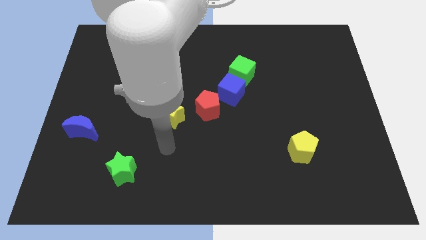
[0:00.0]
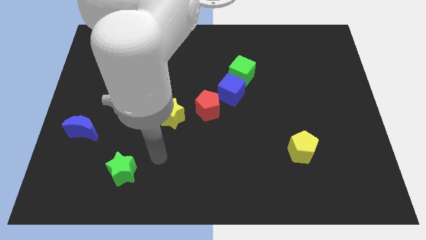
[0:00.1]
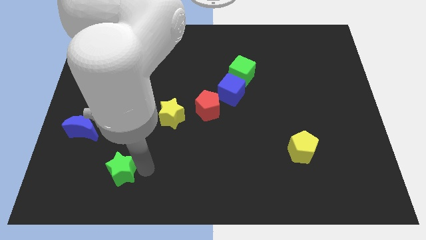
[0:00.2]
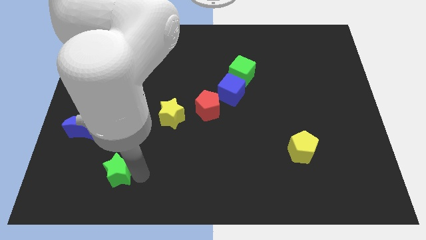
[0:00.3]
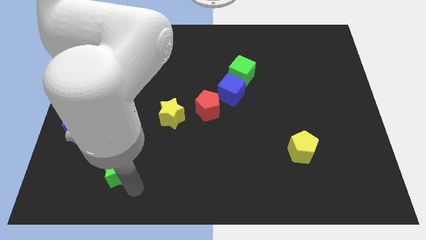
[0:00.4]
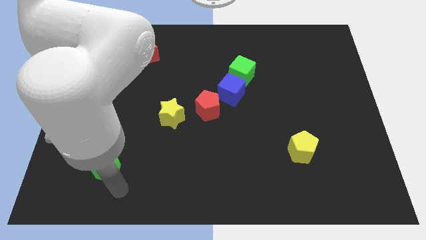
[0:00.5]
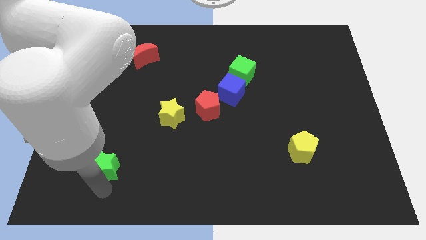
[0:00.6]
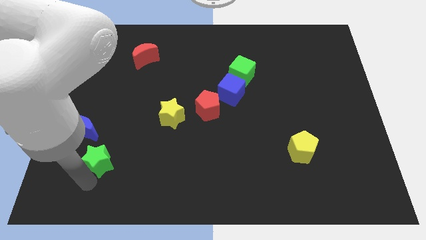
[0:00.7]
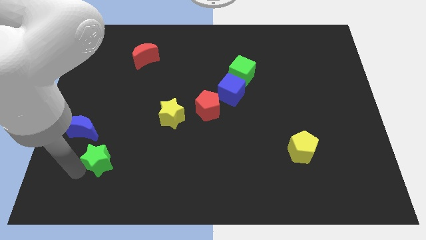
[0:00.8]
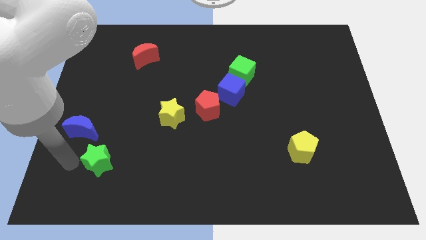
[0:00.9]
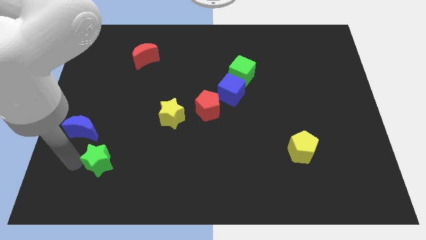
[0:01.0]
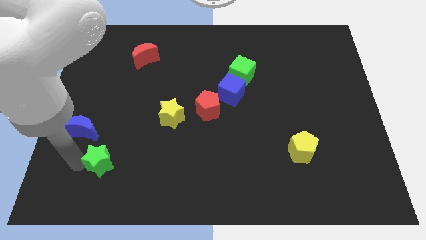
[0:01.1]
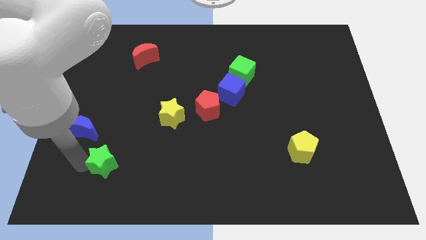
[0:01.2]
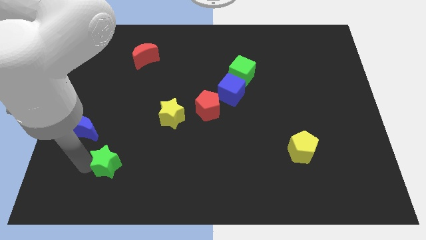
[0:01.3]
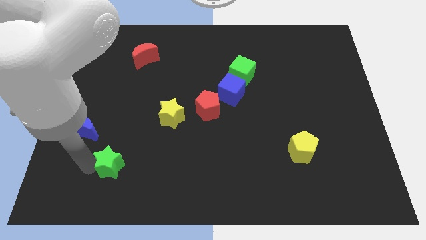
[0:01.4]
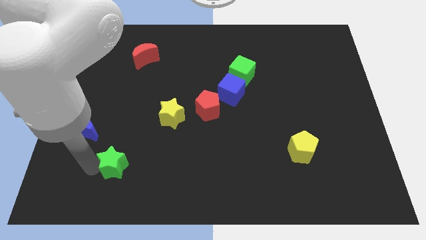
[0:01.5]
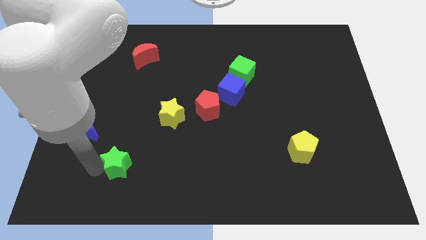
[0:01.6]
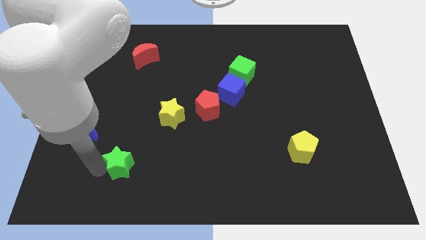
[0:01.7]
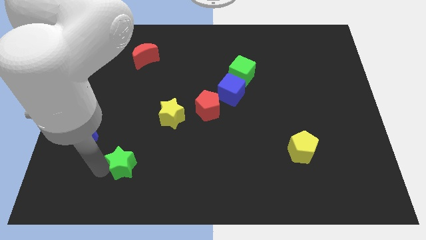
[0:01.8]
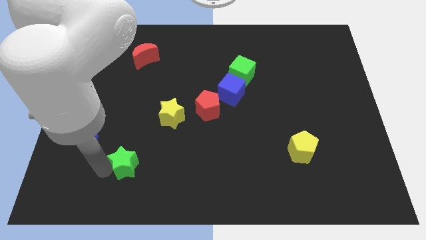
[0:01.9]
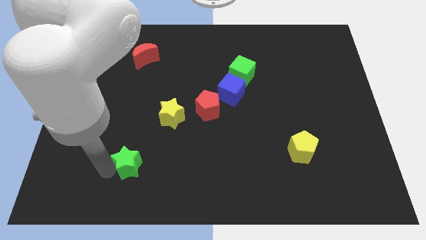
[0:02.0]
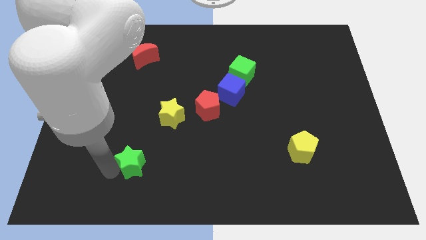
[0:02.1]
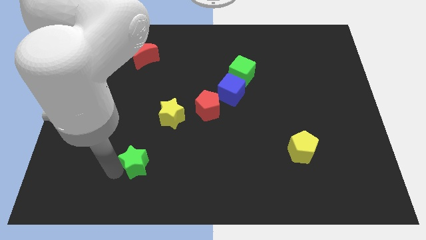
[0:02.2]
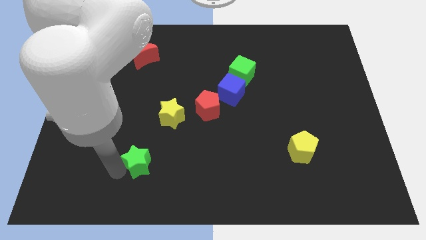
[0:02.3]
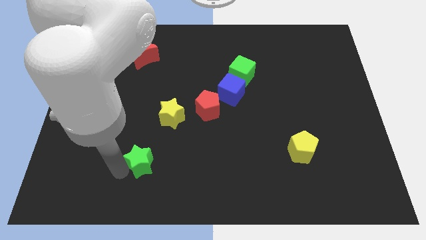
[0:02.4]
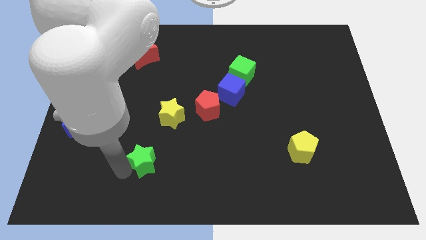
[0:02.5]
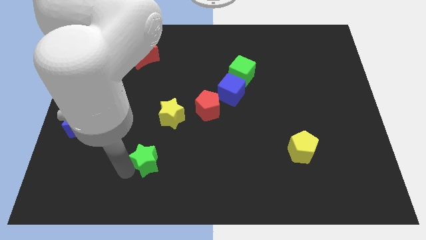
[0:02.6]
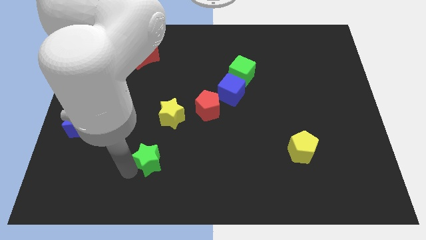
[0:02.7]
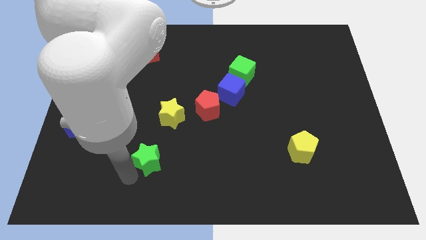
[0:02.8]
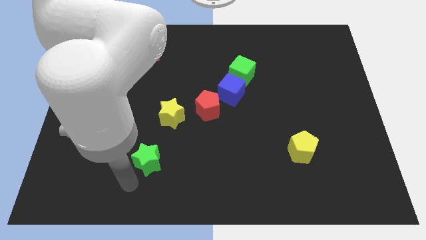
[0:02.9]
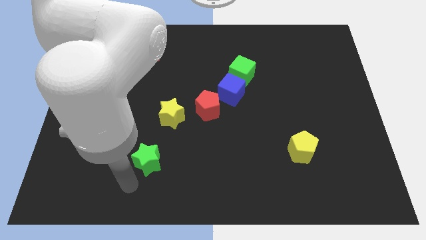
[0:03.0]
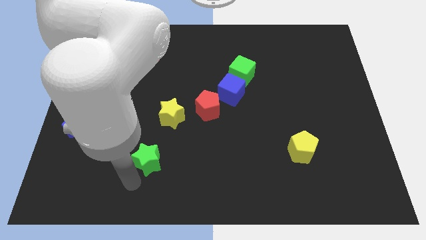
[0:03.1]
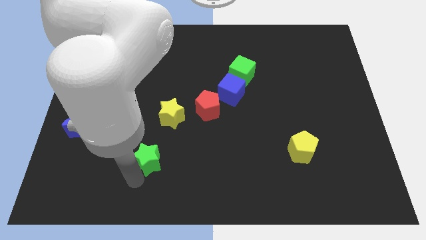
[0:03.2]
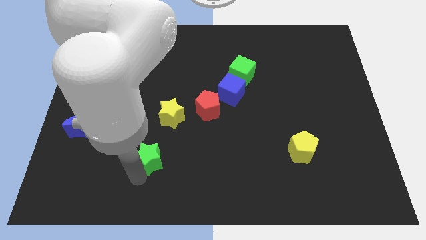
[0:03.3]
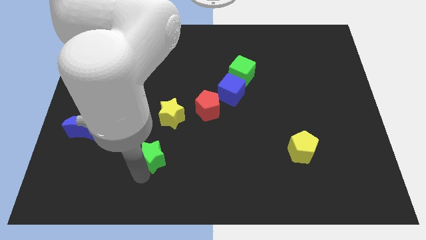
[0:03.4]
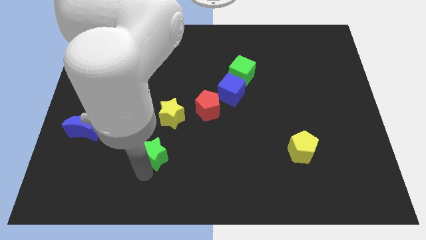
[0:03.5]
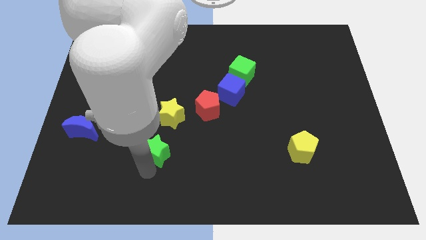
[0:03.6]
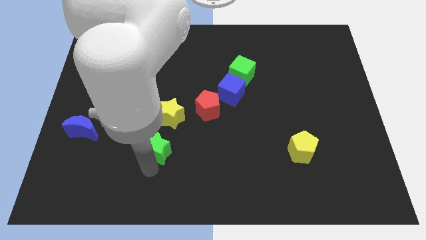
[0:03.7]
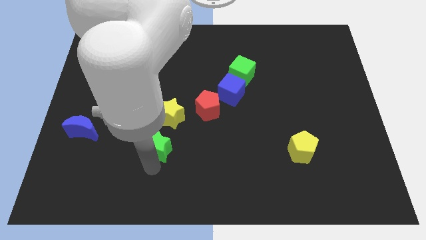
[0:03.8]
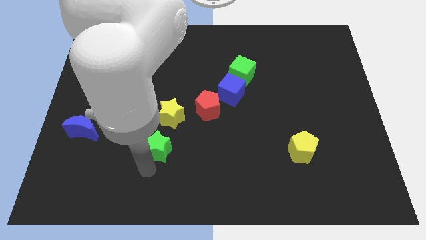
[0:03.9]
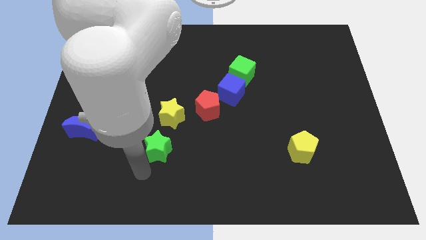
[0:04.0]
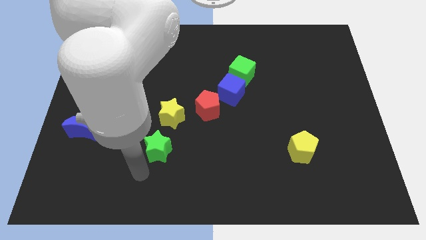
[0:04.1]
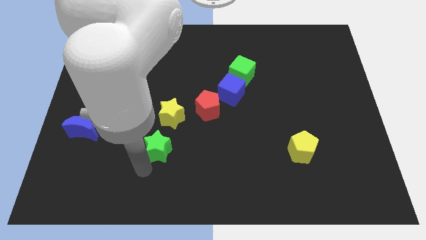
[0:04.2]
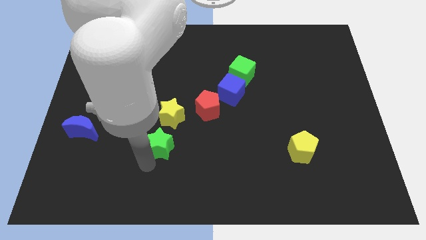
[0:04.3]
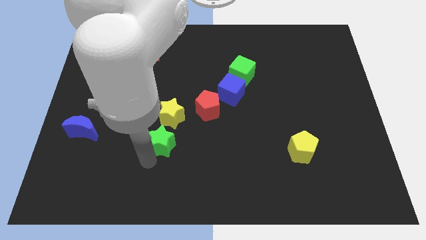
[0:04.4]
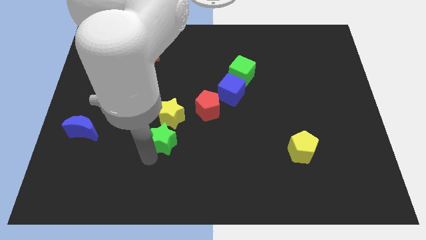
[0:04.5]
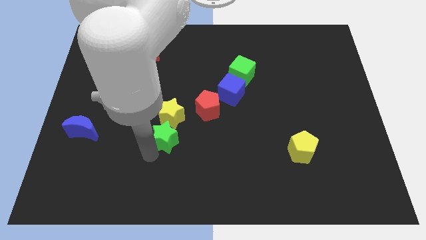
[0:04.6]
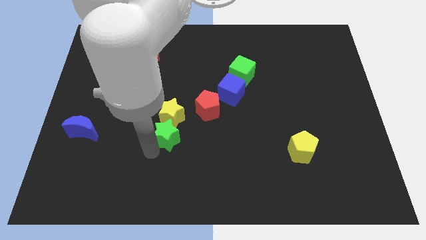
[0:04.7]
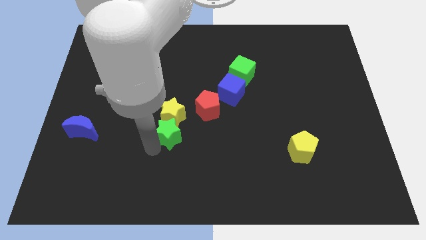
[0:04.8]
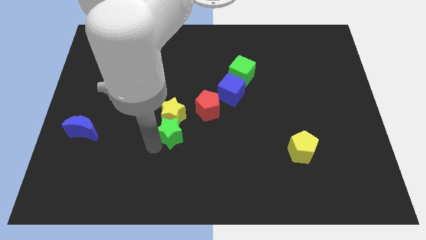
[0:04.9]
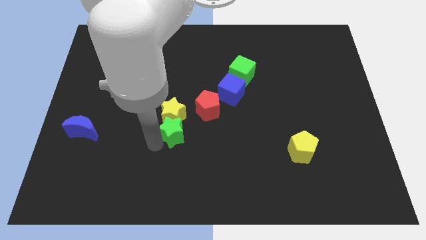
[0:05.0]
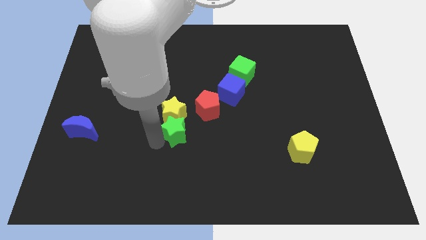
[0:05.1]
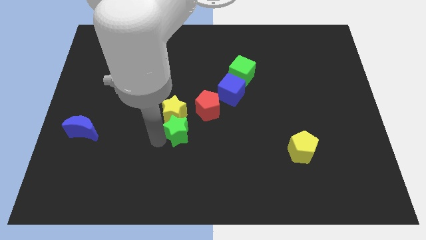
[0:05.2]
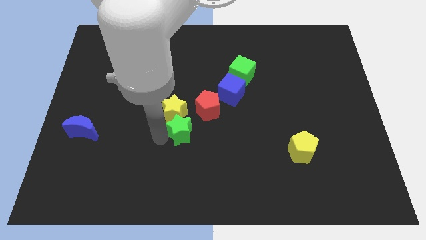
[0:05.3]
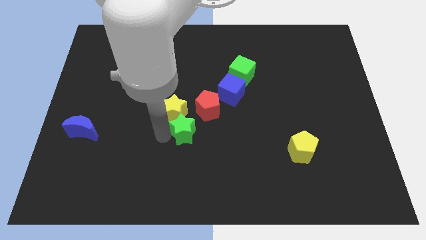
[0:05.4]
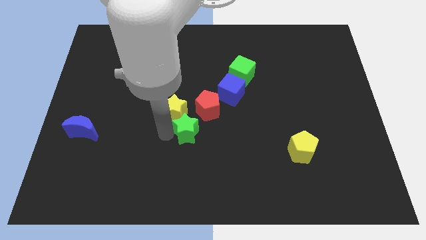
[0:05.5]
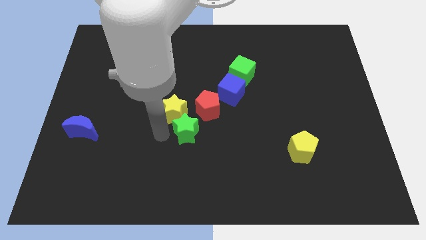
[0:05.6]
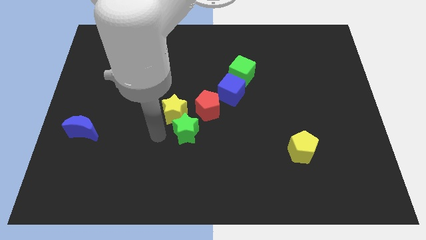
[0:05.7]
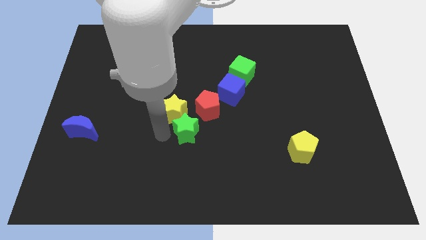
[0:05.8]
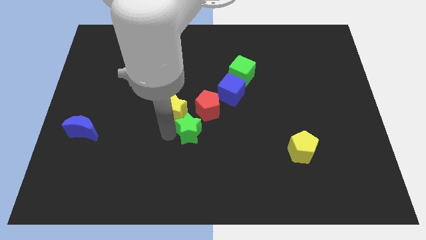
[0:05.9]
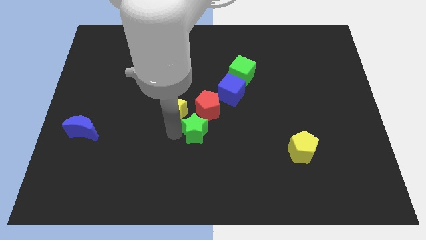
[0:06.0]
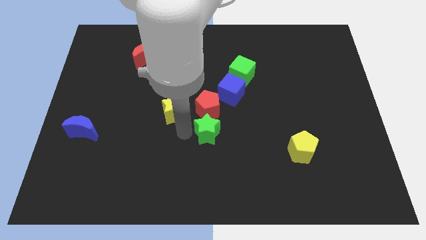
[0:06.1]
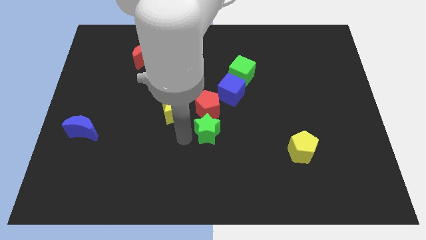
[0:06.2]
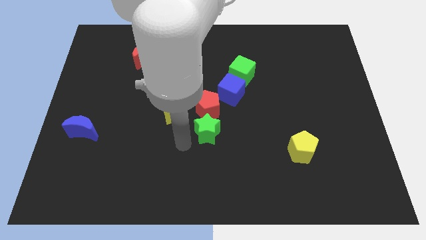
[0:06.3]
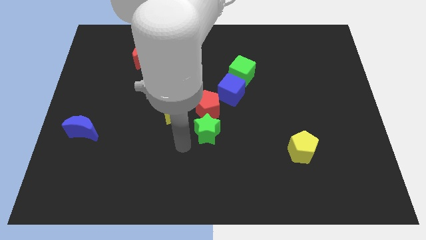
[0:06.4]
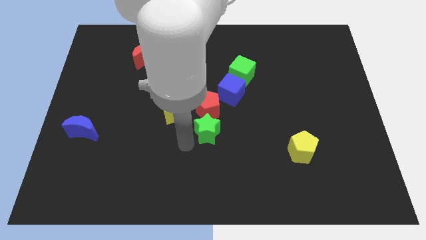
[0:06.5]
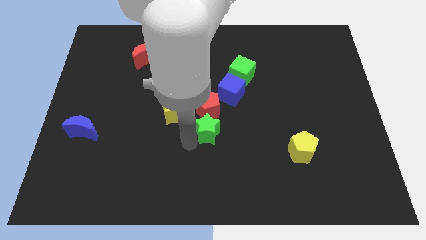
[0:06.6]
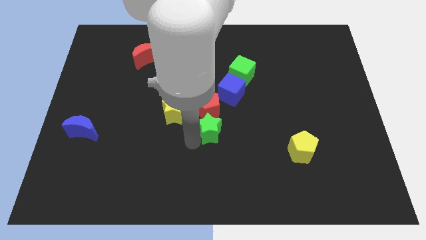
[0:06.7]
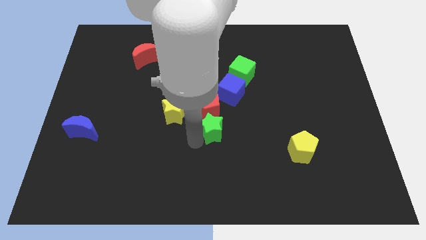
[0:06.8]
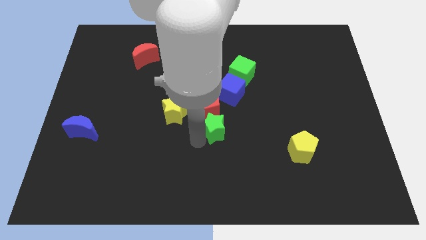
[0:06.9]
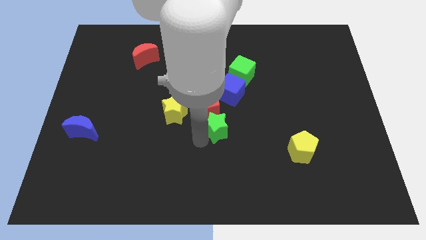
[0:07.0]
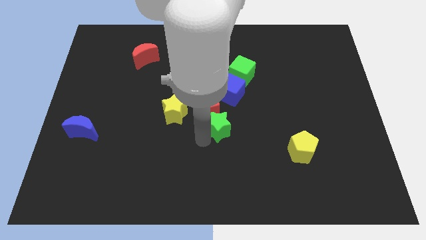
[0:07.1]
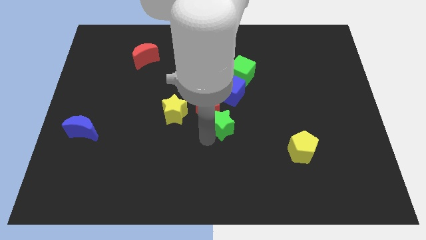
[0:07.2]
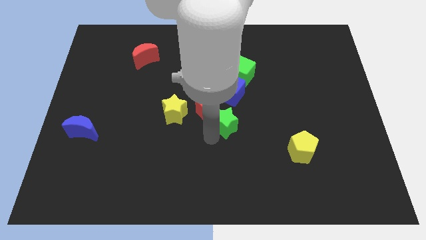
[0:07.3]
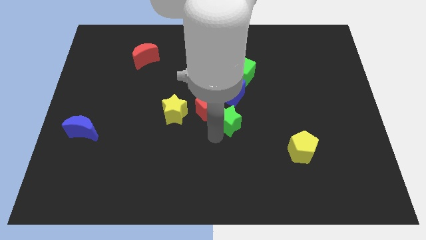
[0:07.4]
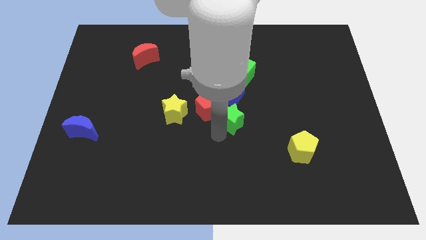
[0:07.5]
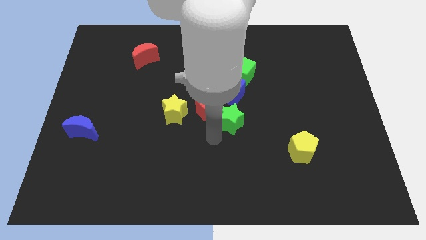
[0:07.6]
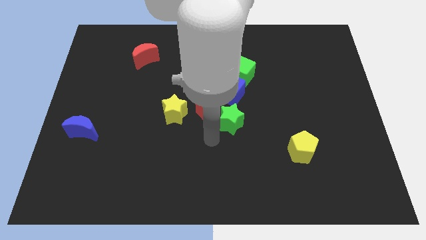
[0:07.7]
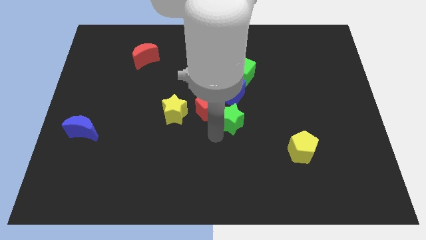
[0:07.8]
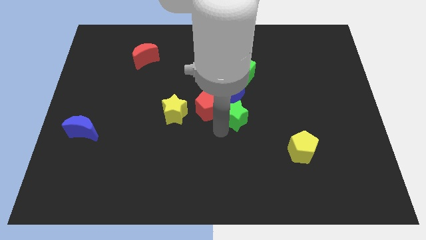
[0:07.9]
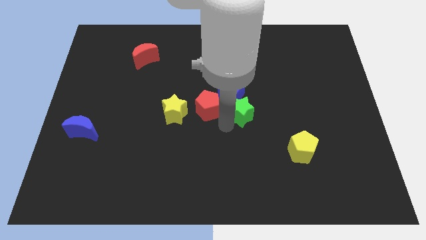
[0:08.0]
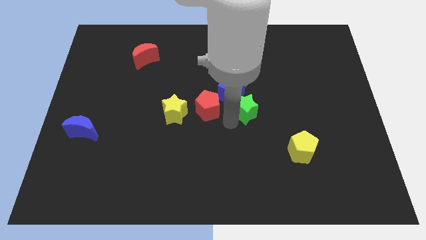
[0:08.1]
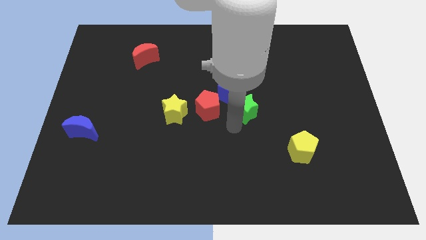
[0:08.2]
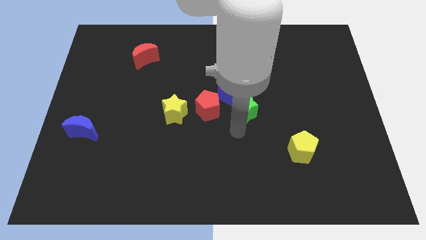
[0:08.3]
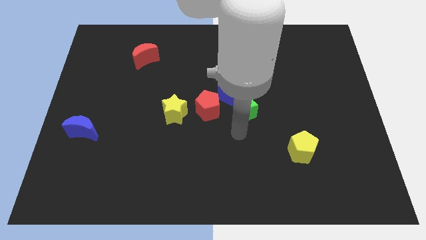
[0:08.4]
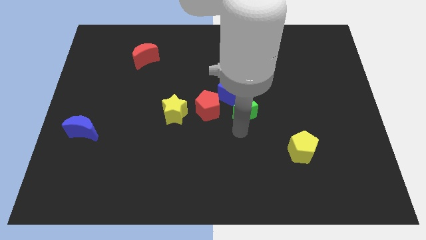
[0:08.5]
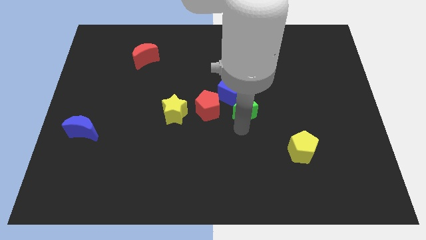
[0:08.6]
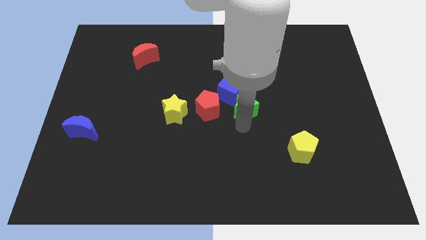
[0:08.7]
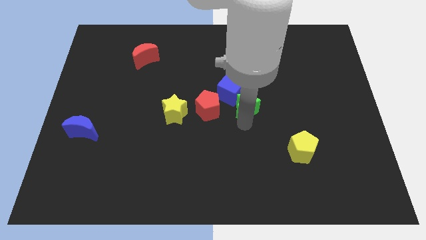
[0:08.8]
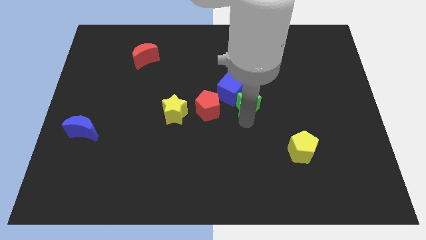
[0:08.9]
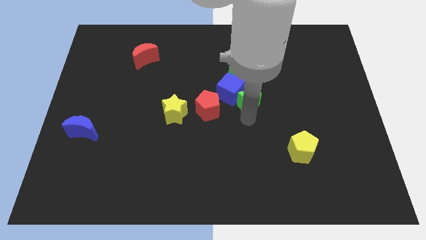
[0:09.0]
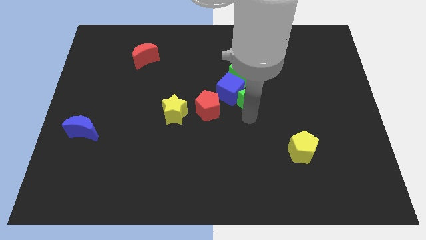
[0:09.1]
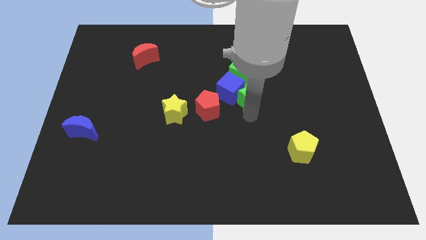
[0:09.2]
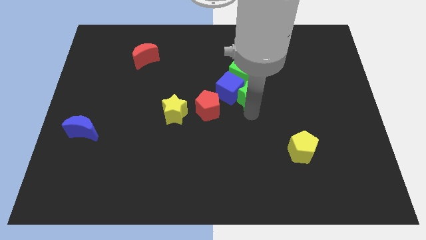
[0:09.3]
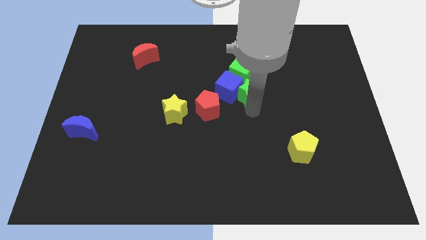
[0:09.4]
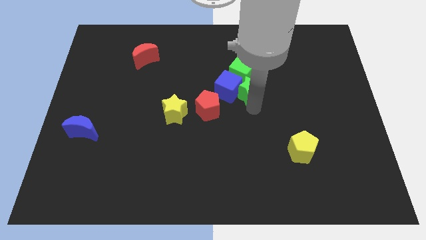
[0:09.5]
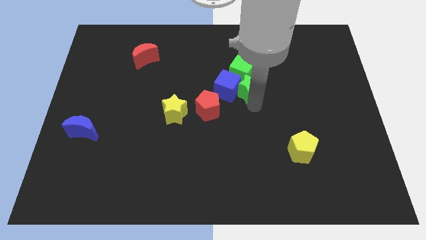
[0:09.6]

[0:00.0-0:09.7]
slide the green star close to the green cube
